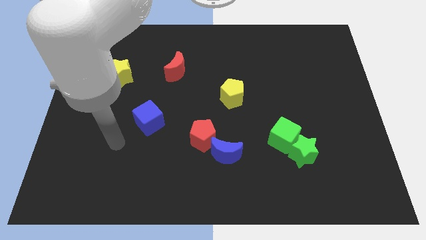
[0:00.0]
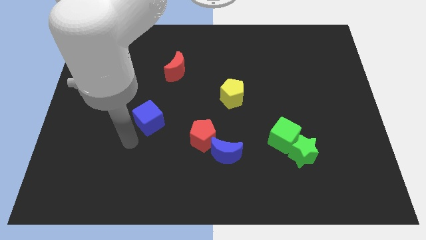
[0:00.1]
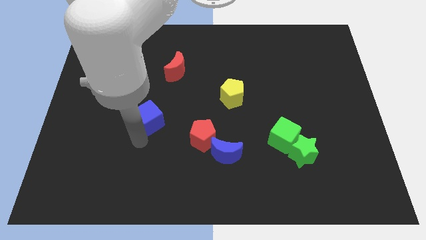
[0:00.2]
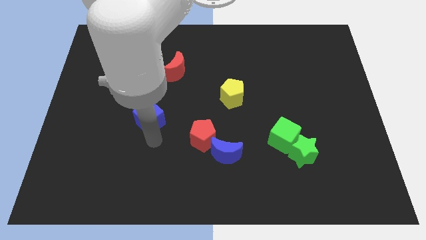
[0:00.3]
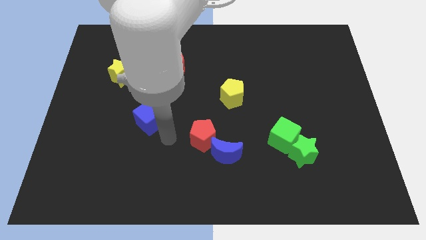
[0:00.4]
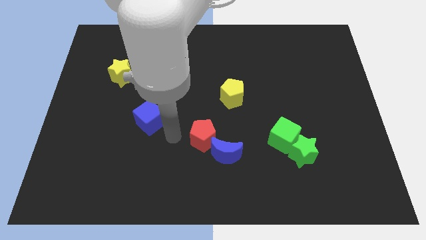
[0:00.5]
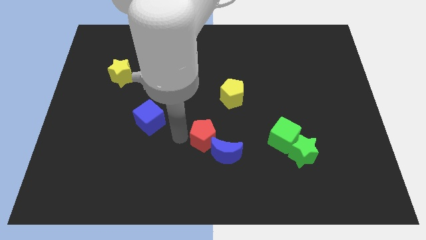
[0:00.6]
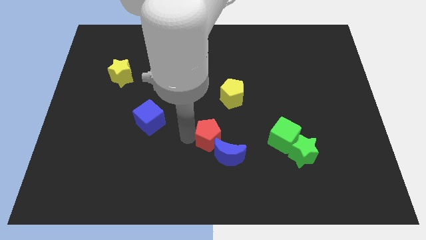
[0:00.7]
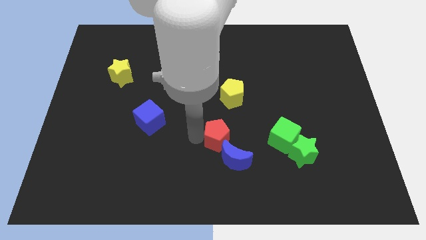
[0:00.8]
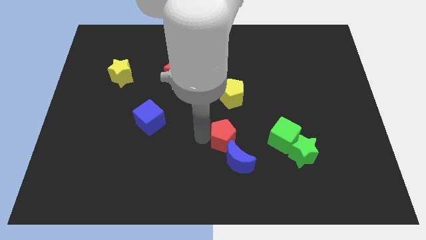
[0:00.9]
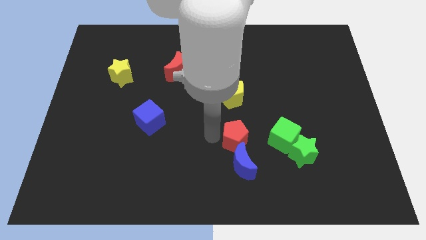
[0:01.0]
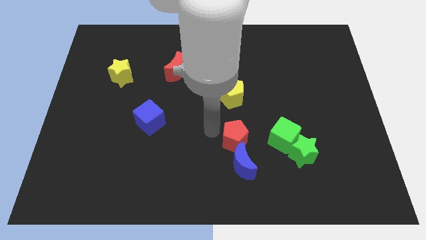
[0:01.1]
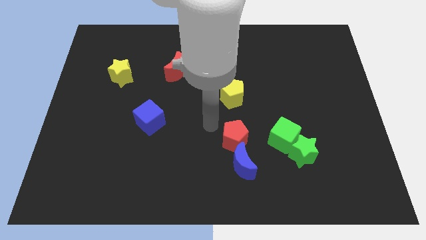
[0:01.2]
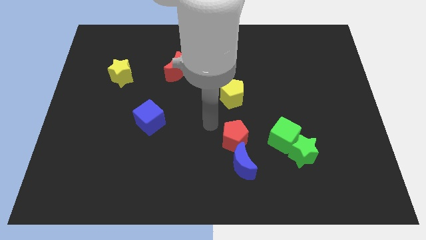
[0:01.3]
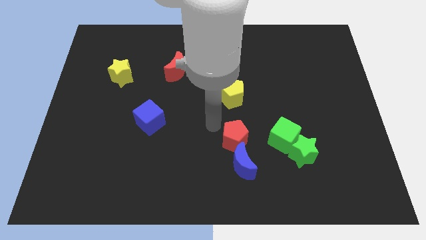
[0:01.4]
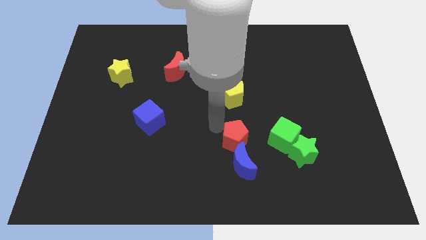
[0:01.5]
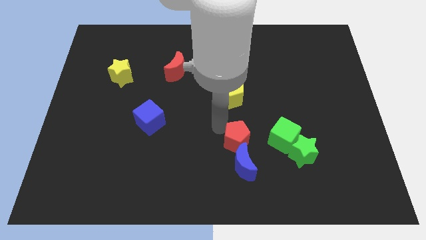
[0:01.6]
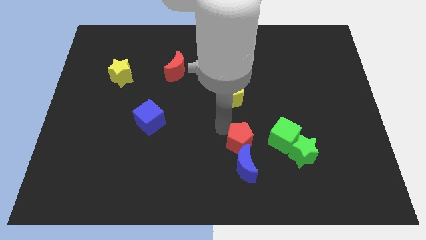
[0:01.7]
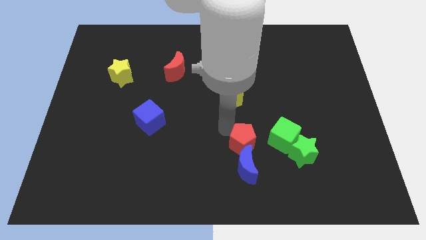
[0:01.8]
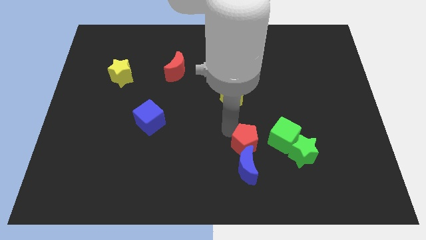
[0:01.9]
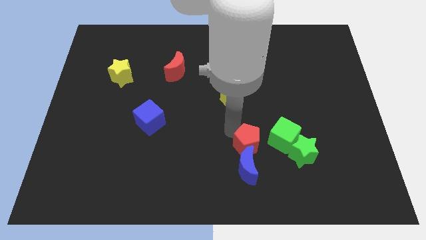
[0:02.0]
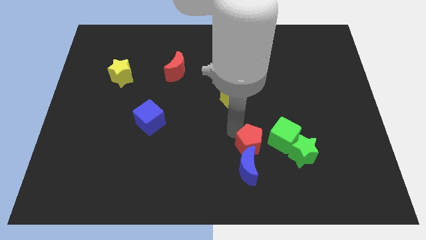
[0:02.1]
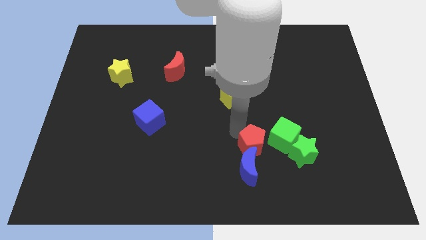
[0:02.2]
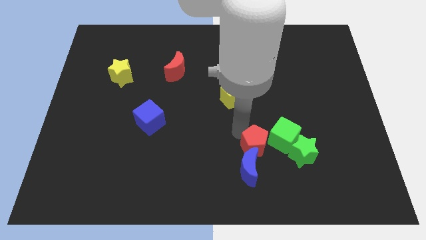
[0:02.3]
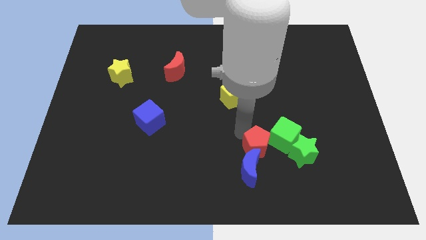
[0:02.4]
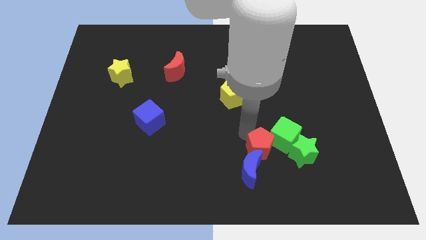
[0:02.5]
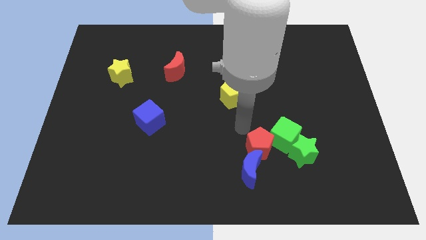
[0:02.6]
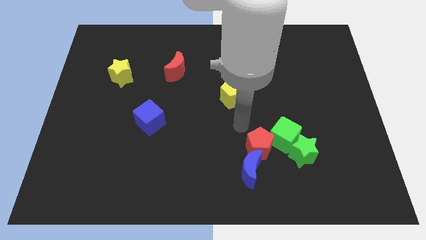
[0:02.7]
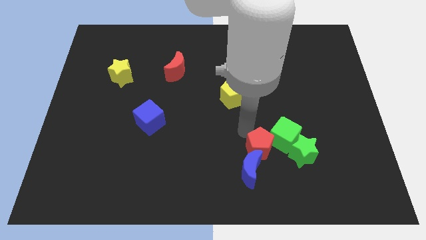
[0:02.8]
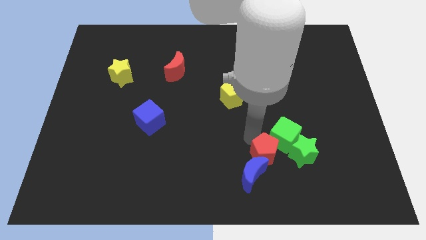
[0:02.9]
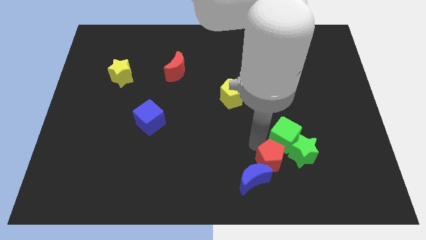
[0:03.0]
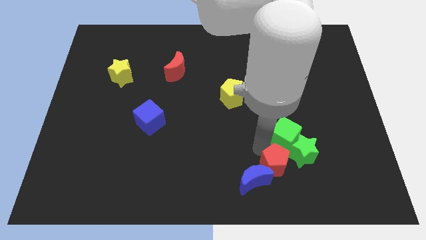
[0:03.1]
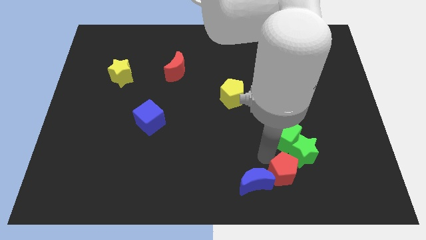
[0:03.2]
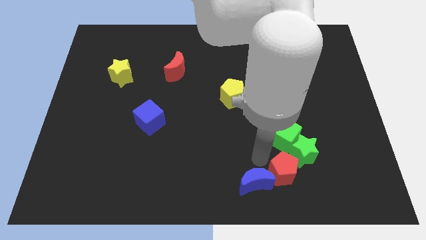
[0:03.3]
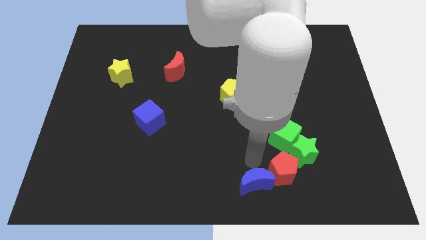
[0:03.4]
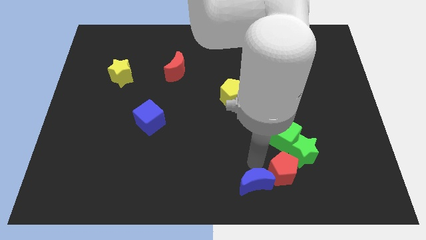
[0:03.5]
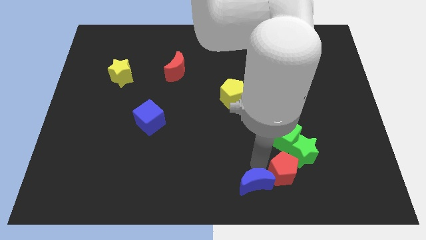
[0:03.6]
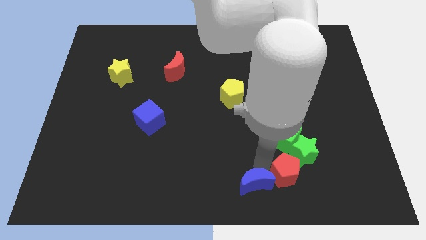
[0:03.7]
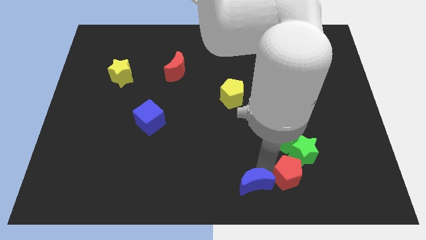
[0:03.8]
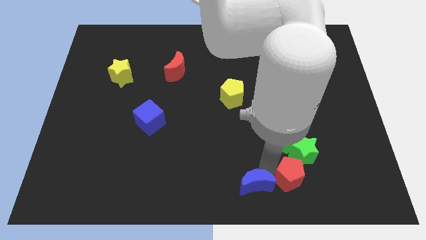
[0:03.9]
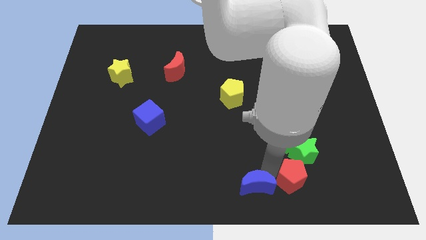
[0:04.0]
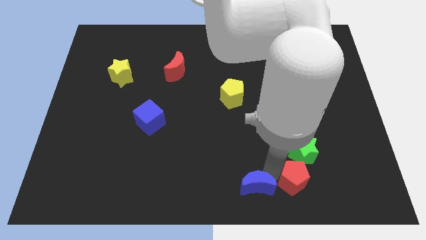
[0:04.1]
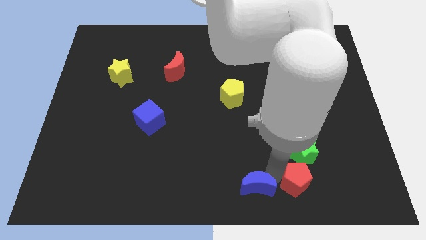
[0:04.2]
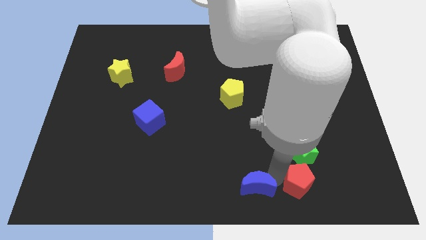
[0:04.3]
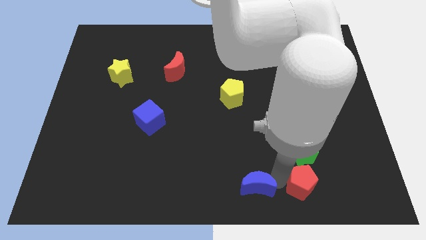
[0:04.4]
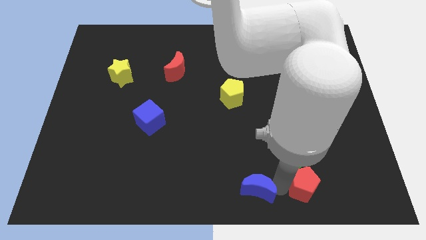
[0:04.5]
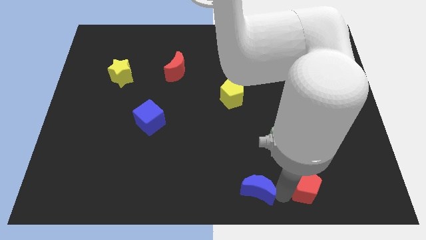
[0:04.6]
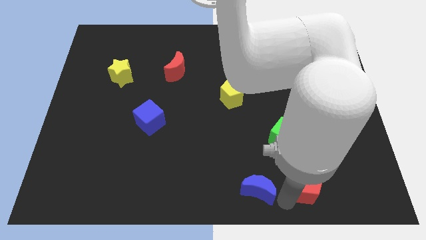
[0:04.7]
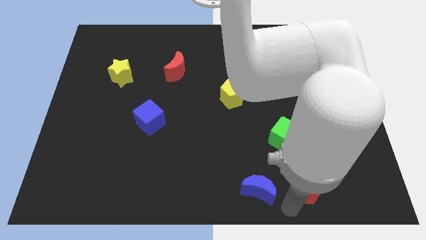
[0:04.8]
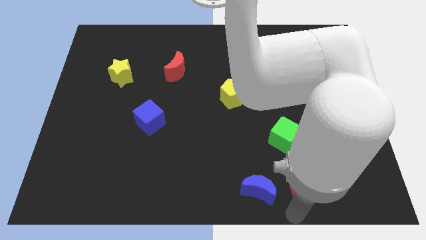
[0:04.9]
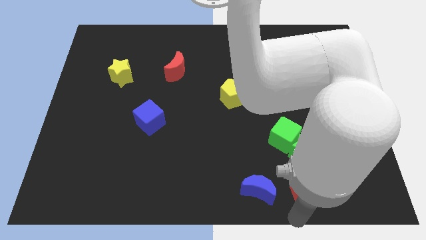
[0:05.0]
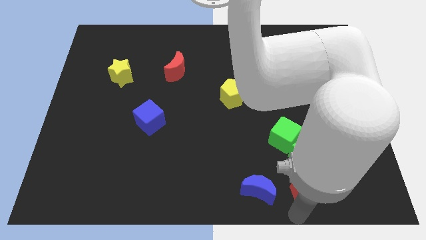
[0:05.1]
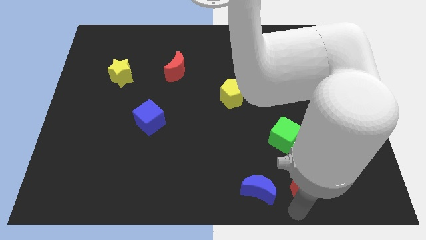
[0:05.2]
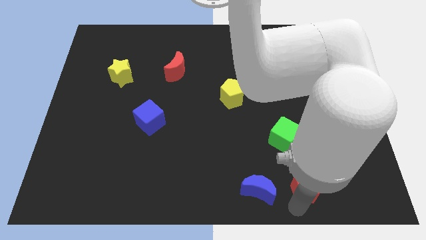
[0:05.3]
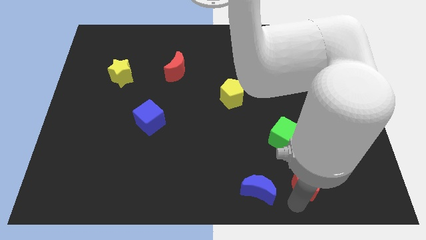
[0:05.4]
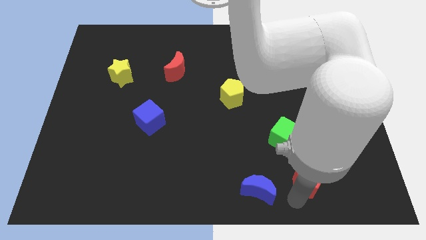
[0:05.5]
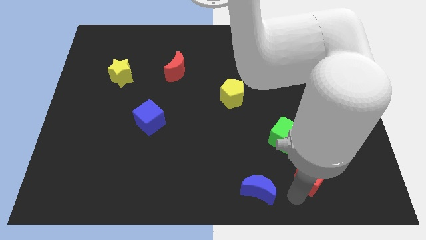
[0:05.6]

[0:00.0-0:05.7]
put the red pentagon to the bottom right side of the green cube

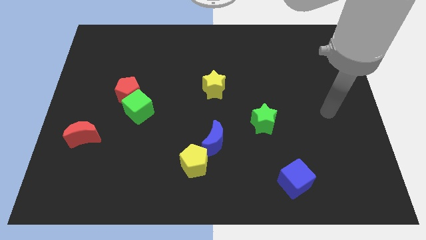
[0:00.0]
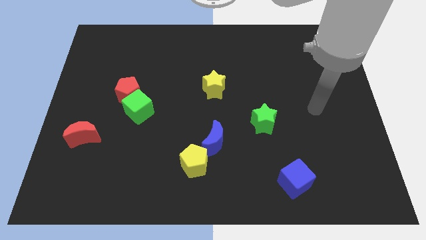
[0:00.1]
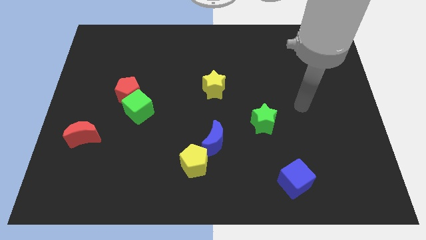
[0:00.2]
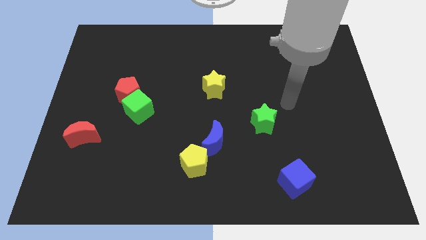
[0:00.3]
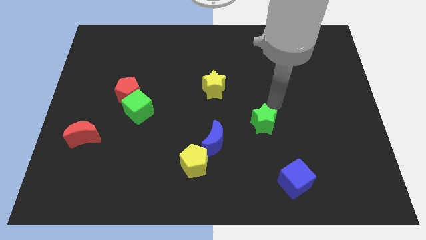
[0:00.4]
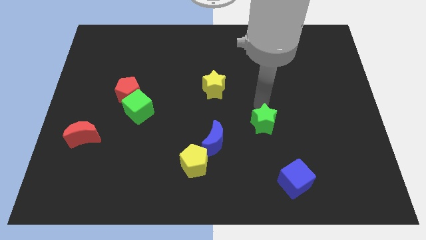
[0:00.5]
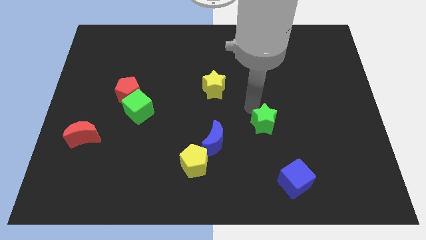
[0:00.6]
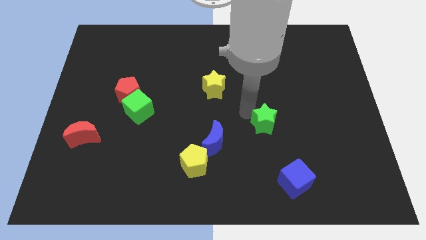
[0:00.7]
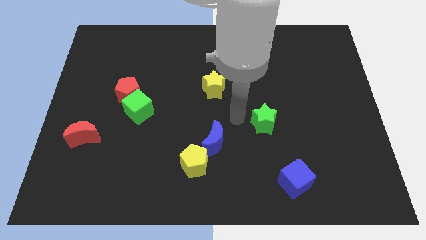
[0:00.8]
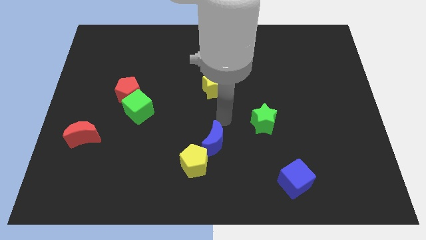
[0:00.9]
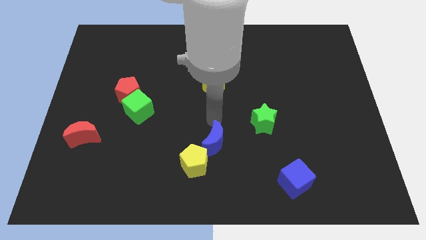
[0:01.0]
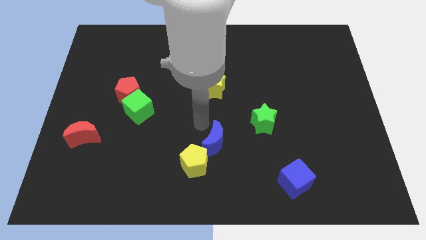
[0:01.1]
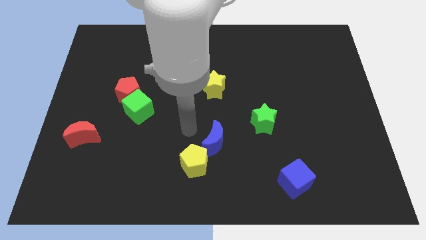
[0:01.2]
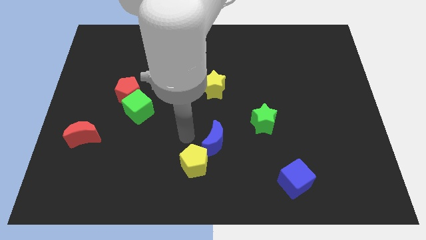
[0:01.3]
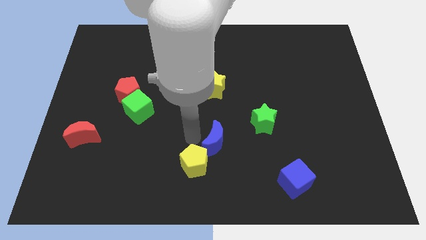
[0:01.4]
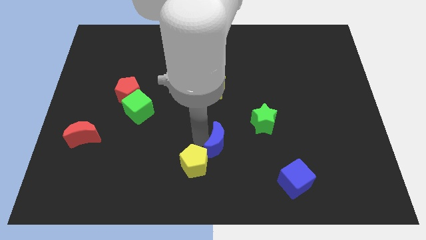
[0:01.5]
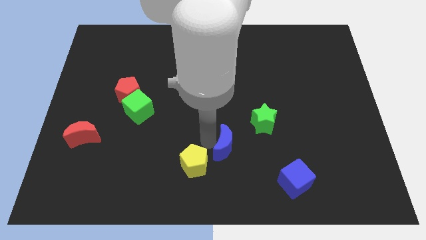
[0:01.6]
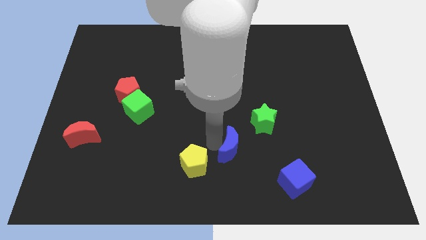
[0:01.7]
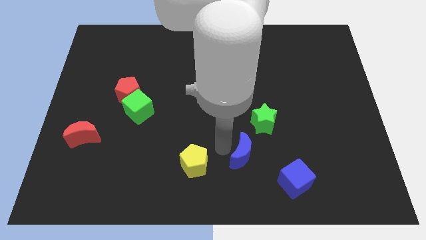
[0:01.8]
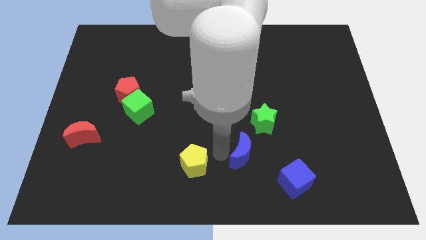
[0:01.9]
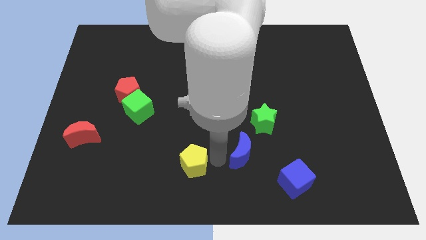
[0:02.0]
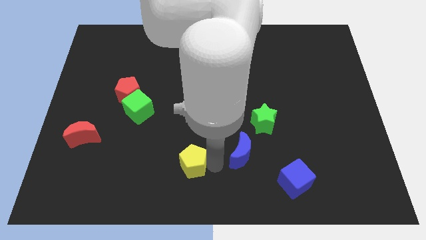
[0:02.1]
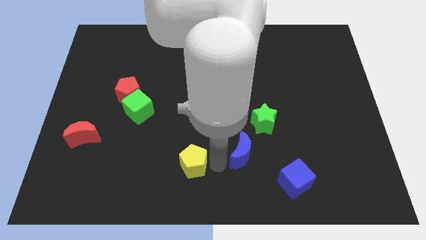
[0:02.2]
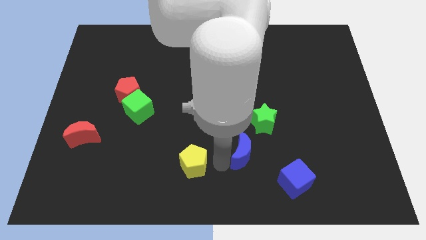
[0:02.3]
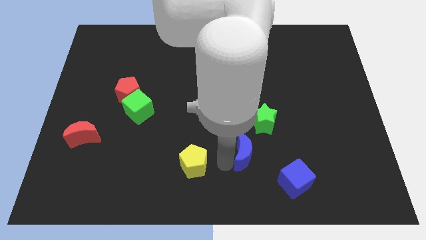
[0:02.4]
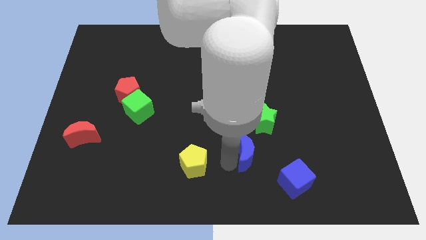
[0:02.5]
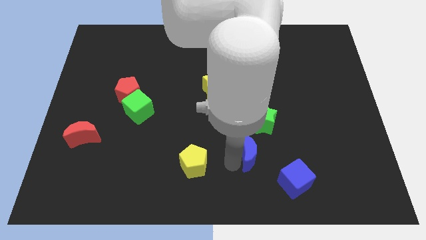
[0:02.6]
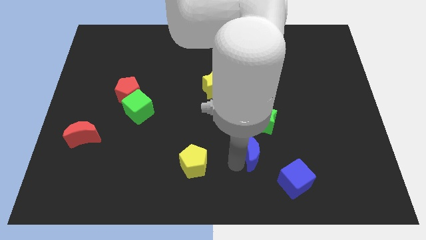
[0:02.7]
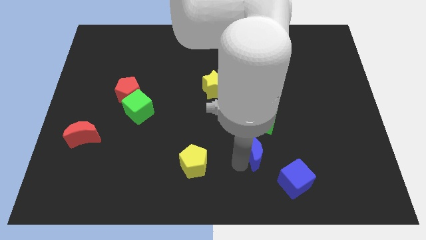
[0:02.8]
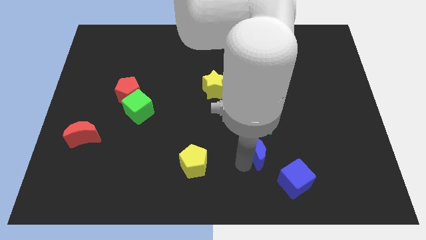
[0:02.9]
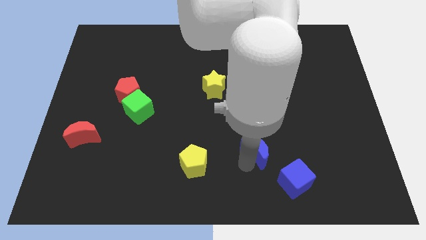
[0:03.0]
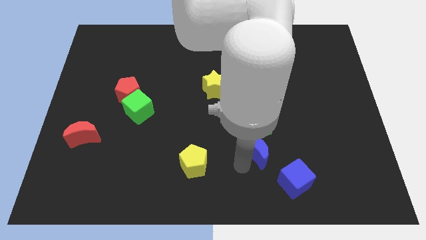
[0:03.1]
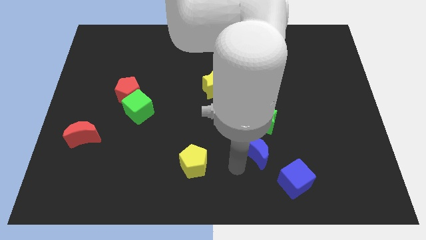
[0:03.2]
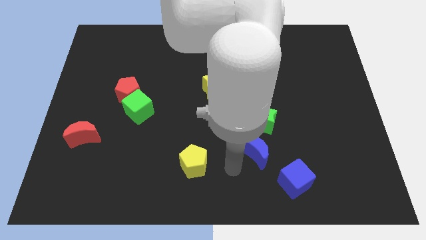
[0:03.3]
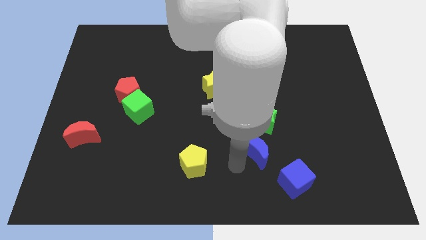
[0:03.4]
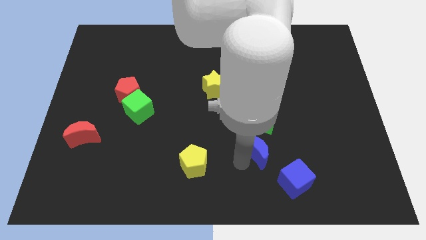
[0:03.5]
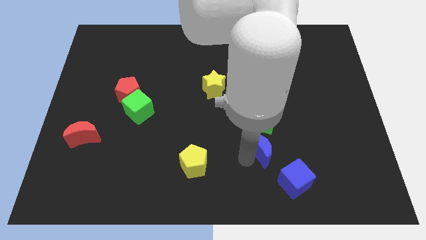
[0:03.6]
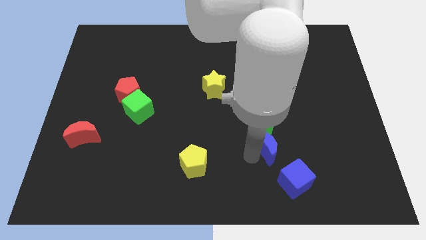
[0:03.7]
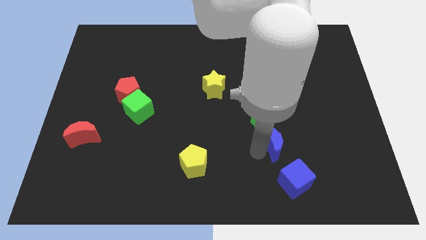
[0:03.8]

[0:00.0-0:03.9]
put the blue moon above the blue cube
